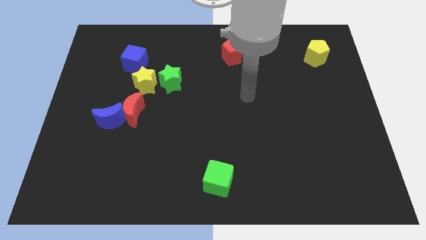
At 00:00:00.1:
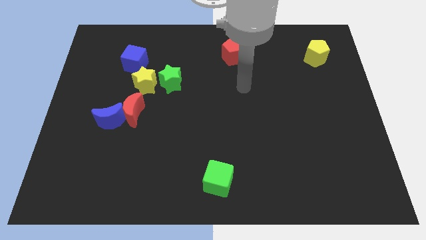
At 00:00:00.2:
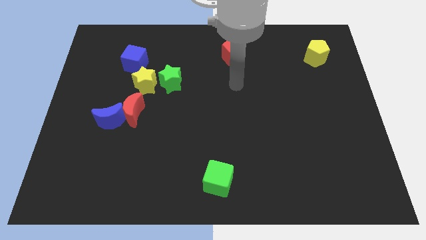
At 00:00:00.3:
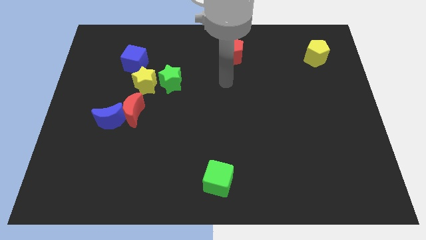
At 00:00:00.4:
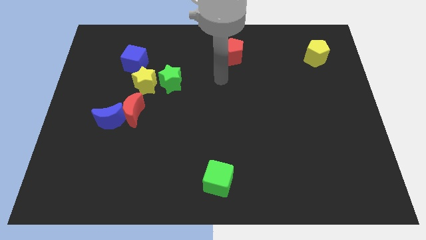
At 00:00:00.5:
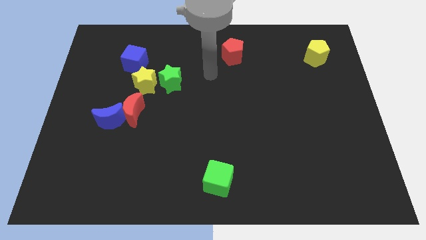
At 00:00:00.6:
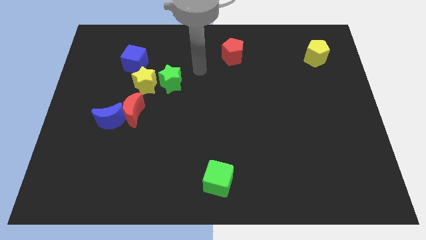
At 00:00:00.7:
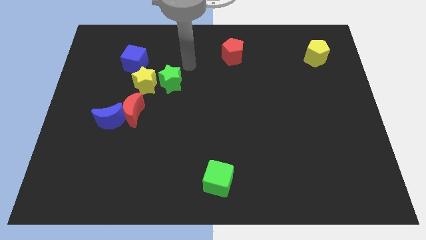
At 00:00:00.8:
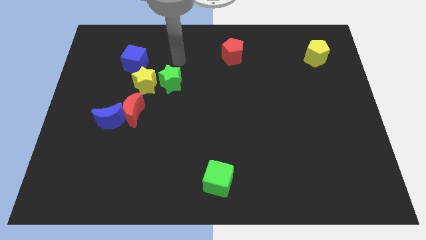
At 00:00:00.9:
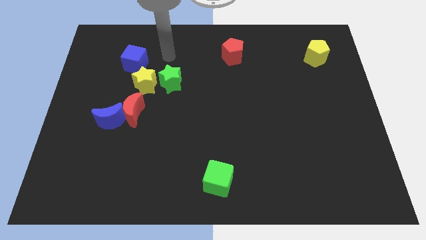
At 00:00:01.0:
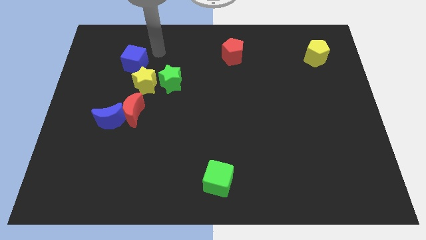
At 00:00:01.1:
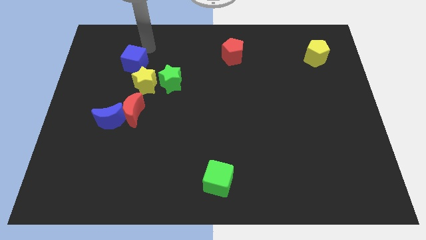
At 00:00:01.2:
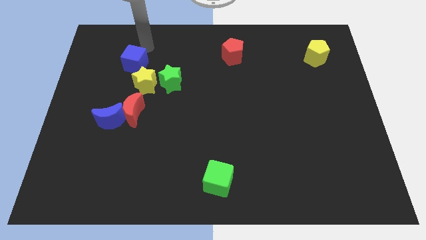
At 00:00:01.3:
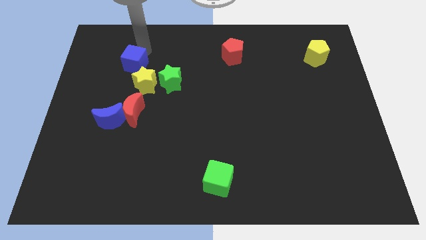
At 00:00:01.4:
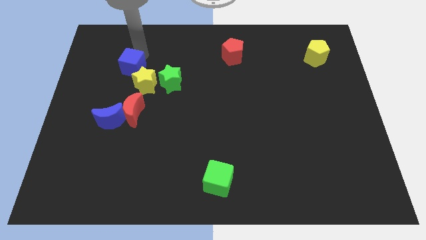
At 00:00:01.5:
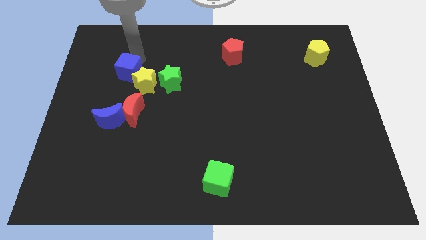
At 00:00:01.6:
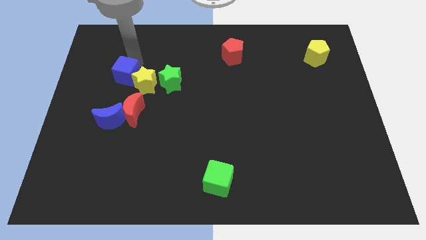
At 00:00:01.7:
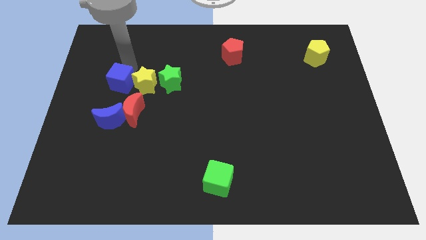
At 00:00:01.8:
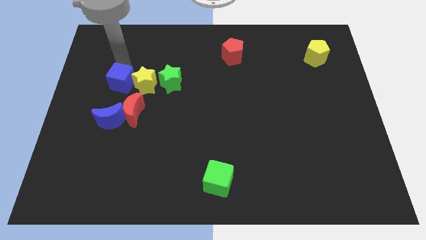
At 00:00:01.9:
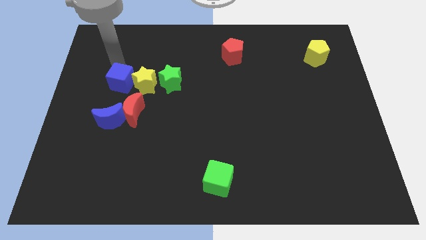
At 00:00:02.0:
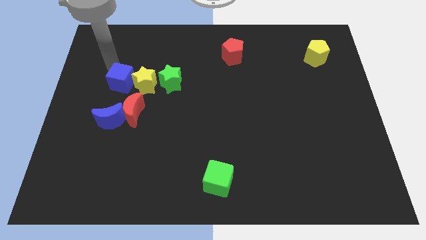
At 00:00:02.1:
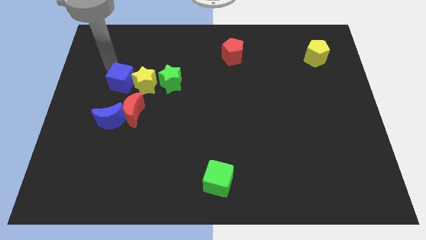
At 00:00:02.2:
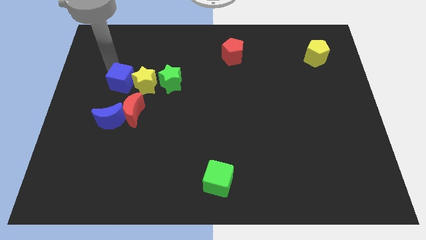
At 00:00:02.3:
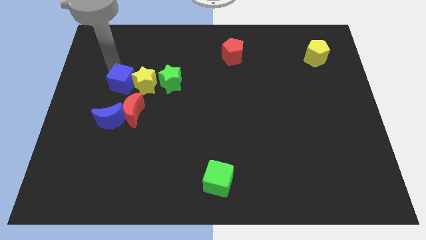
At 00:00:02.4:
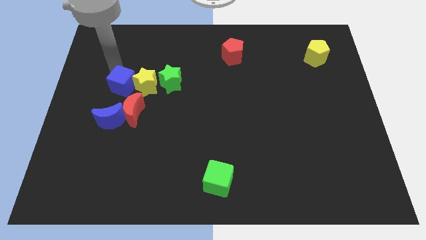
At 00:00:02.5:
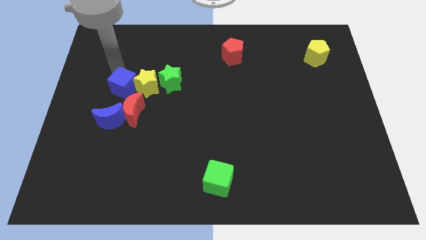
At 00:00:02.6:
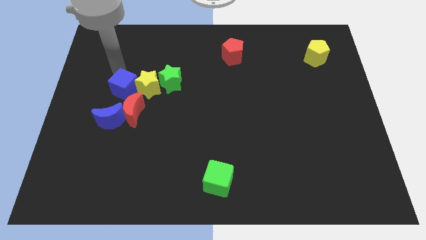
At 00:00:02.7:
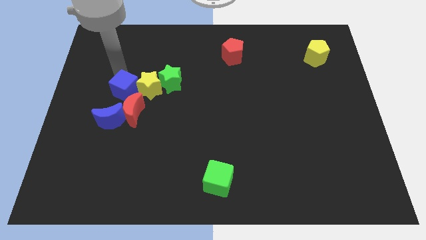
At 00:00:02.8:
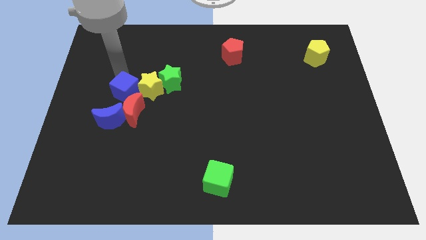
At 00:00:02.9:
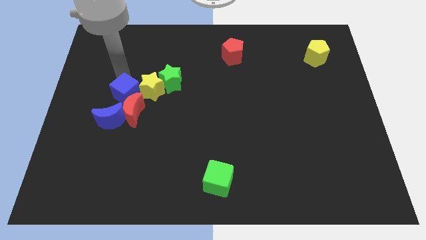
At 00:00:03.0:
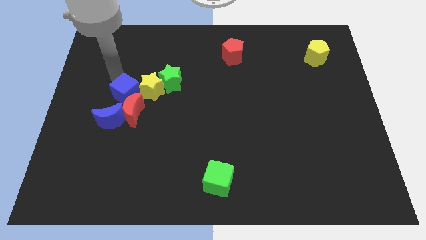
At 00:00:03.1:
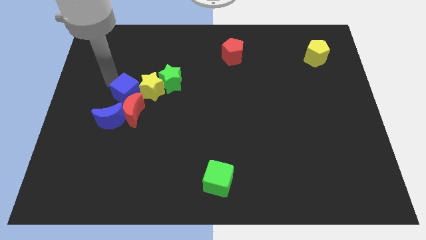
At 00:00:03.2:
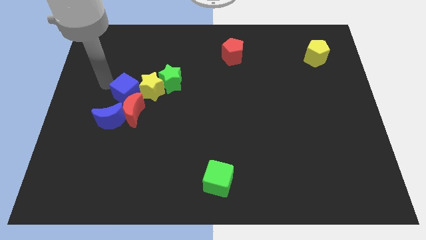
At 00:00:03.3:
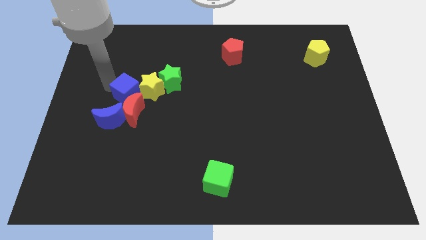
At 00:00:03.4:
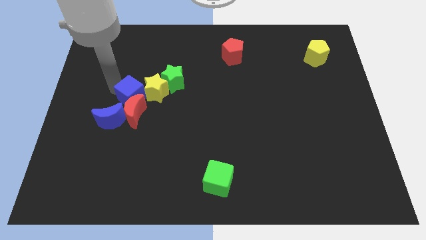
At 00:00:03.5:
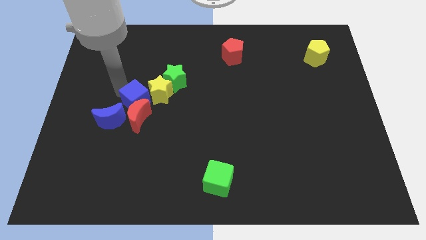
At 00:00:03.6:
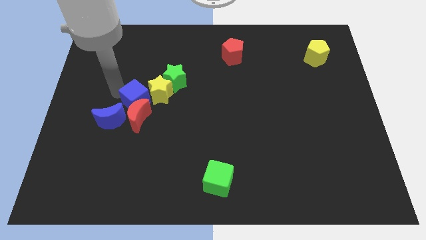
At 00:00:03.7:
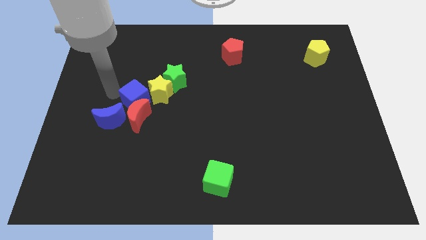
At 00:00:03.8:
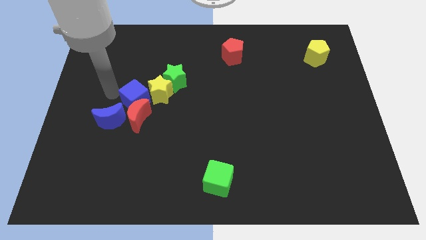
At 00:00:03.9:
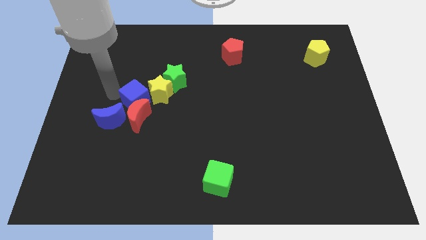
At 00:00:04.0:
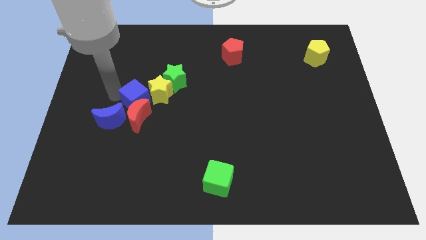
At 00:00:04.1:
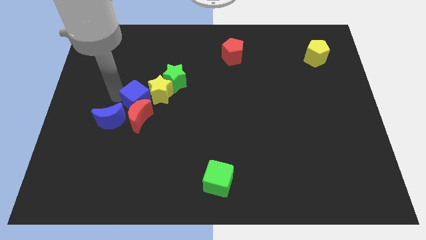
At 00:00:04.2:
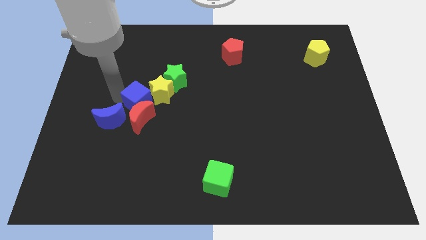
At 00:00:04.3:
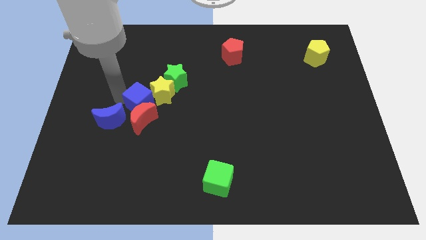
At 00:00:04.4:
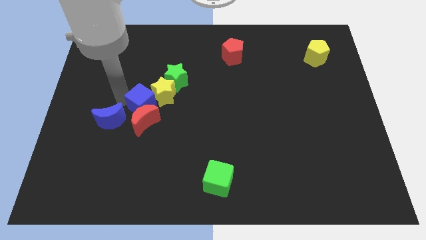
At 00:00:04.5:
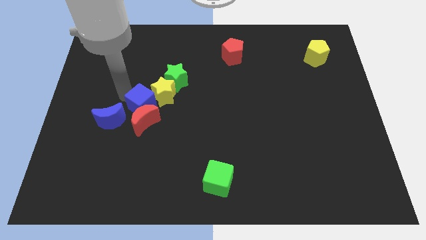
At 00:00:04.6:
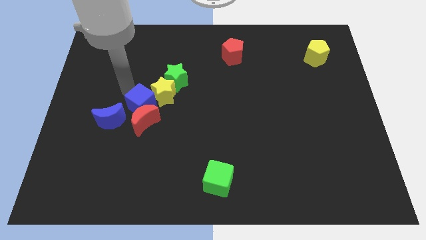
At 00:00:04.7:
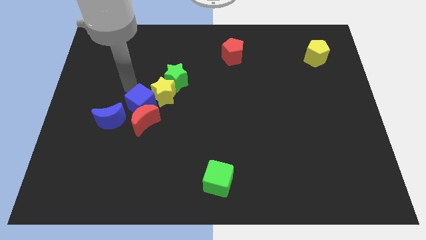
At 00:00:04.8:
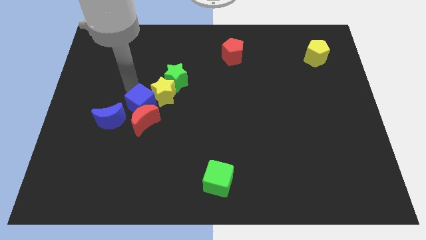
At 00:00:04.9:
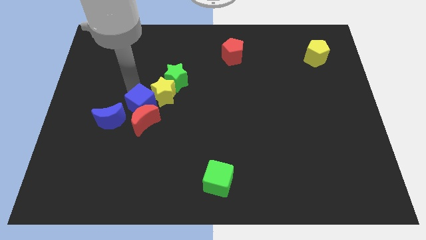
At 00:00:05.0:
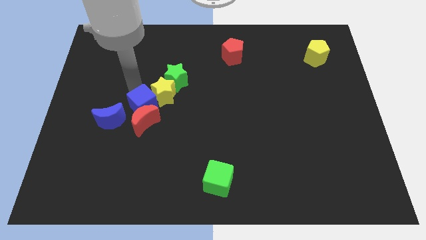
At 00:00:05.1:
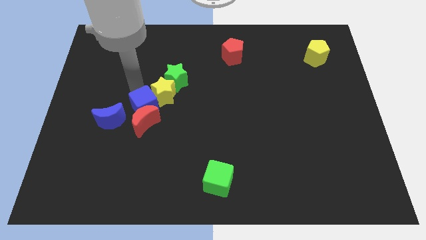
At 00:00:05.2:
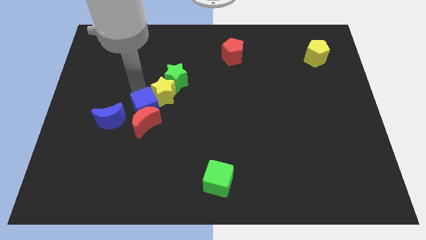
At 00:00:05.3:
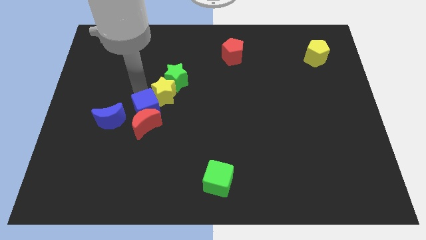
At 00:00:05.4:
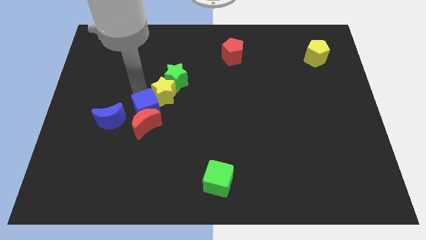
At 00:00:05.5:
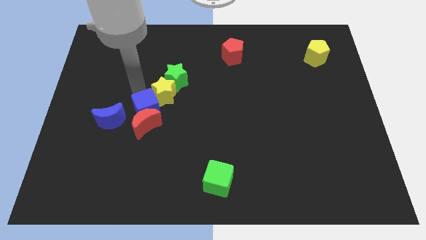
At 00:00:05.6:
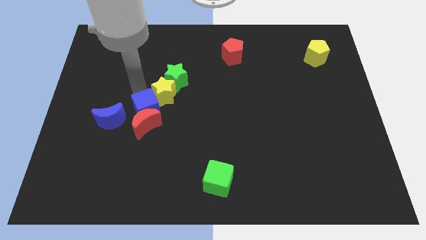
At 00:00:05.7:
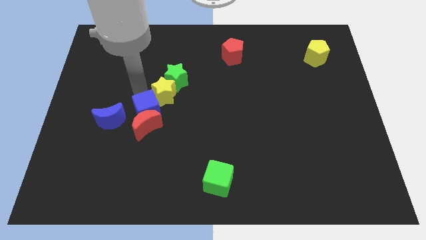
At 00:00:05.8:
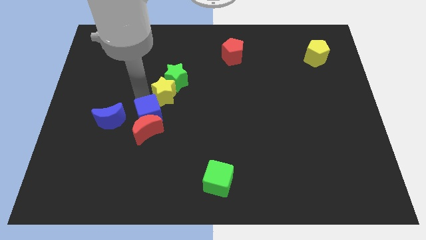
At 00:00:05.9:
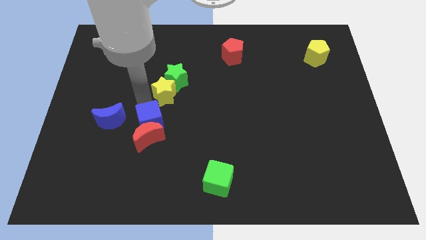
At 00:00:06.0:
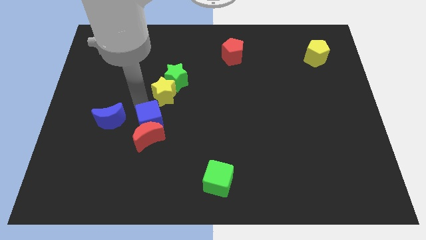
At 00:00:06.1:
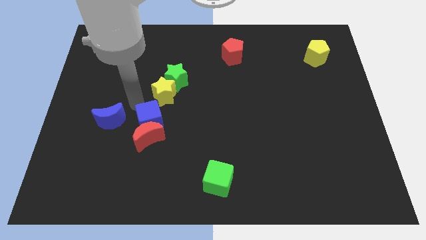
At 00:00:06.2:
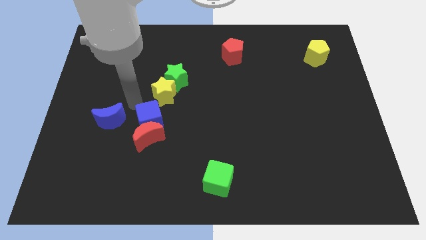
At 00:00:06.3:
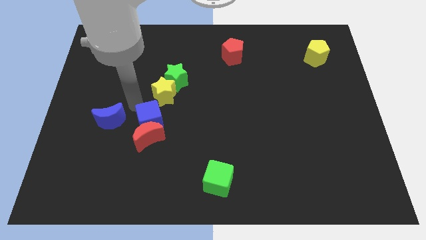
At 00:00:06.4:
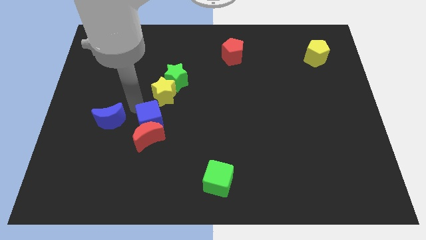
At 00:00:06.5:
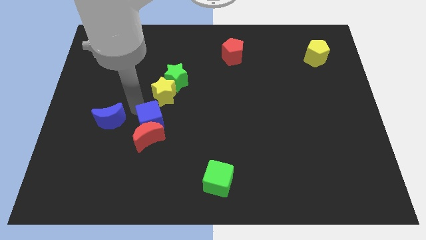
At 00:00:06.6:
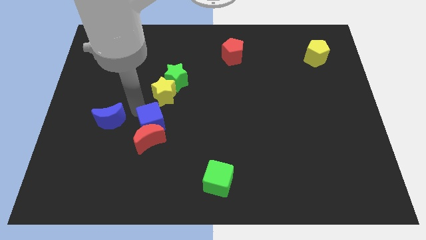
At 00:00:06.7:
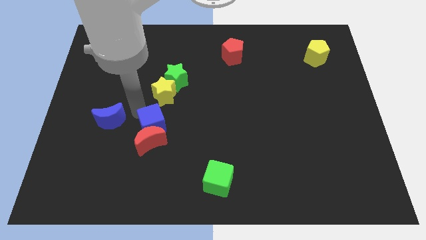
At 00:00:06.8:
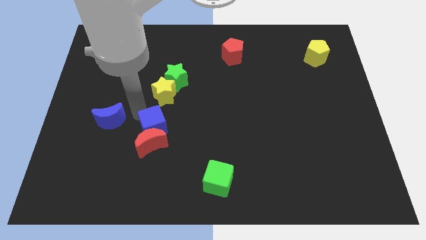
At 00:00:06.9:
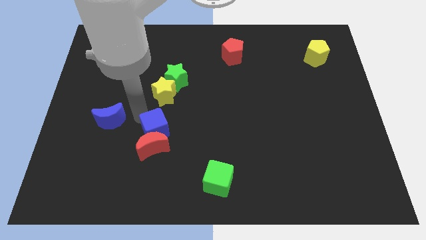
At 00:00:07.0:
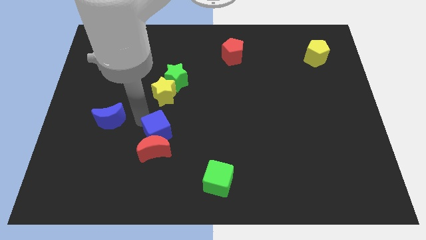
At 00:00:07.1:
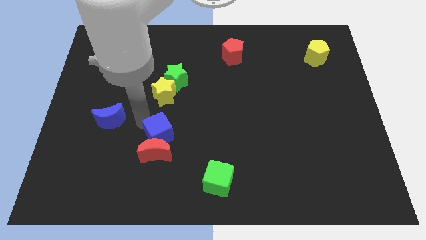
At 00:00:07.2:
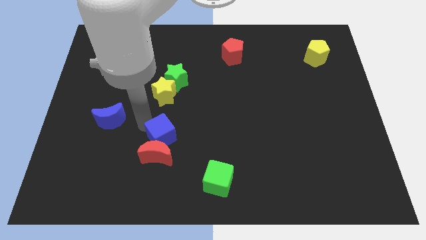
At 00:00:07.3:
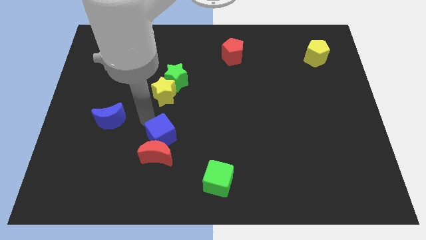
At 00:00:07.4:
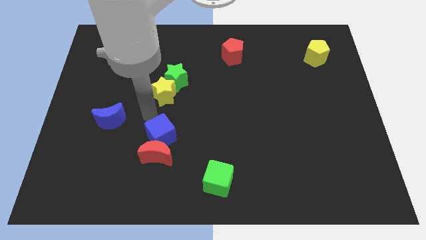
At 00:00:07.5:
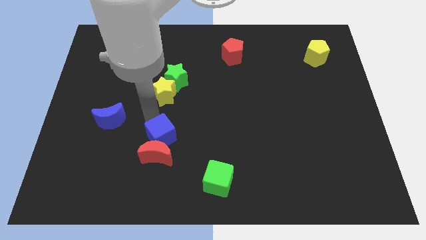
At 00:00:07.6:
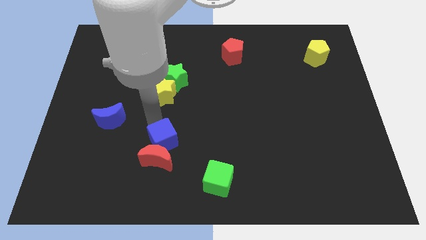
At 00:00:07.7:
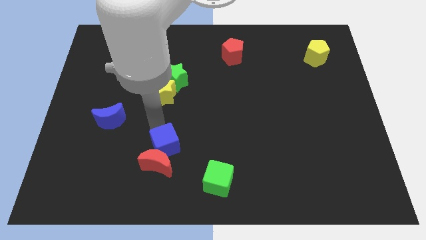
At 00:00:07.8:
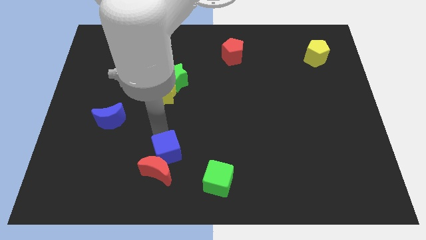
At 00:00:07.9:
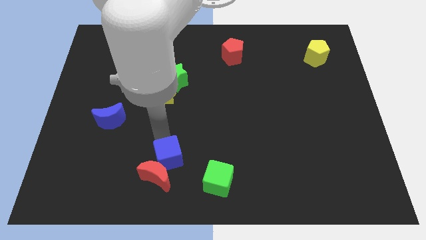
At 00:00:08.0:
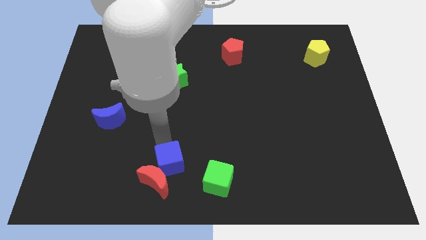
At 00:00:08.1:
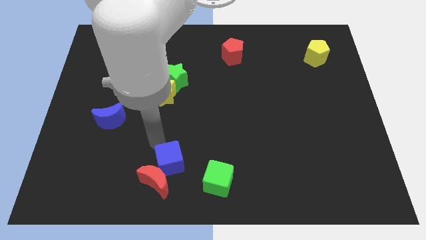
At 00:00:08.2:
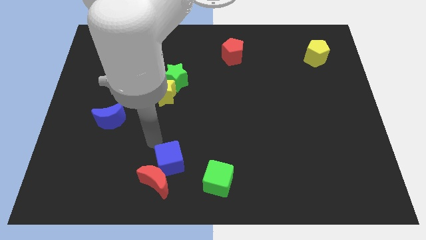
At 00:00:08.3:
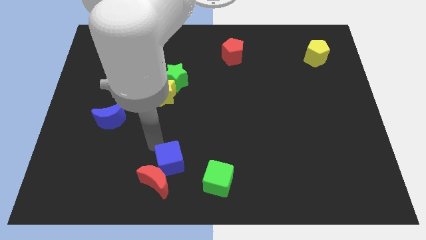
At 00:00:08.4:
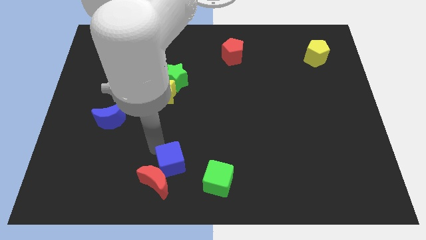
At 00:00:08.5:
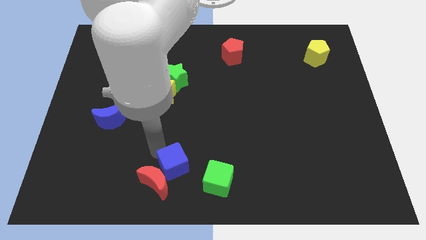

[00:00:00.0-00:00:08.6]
push the blue cube to the bottom side
